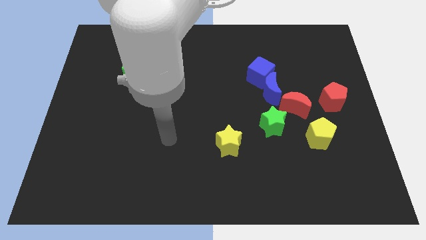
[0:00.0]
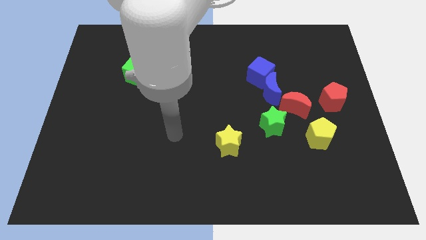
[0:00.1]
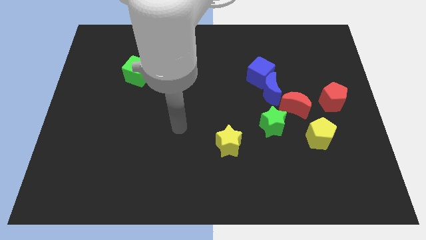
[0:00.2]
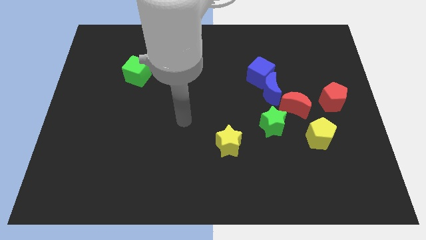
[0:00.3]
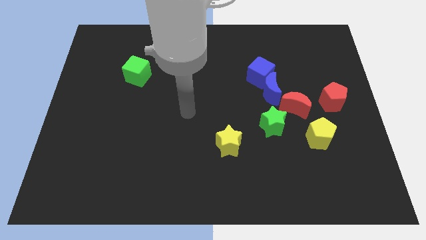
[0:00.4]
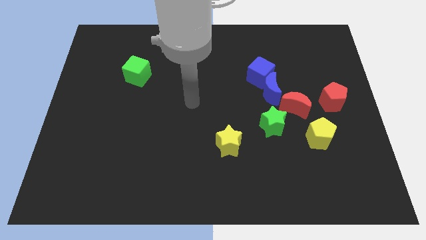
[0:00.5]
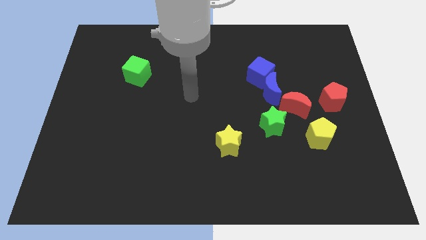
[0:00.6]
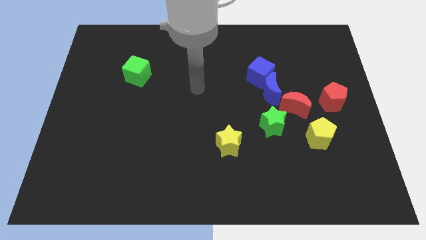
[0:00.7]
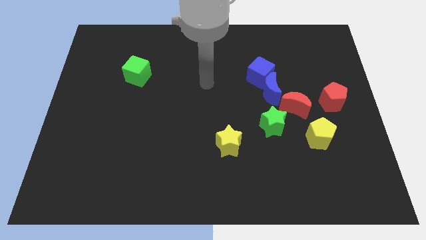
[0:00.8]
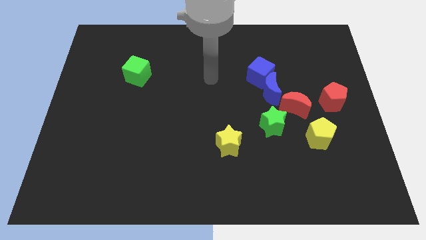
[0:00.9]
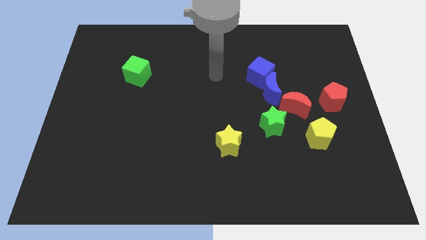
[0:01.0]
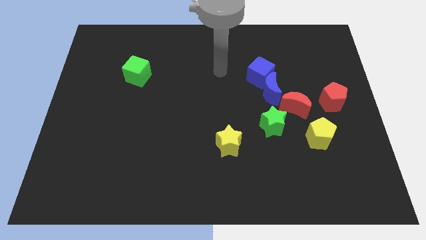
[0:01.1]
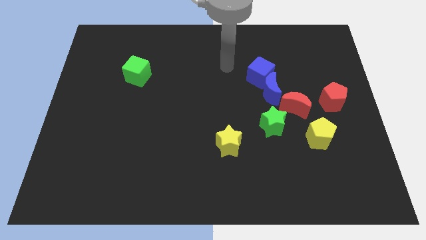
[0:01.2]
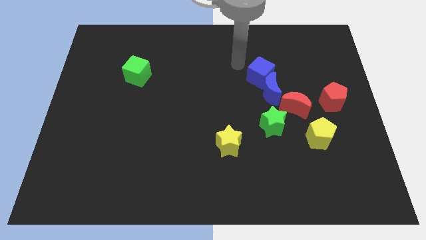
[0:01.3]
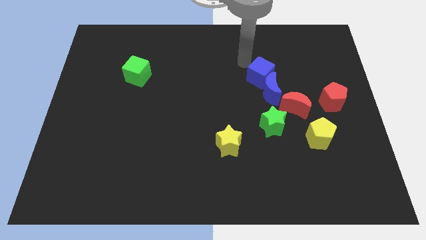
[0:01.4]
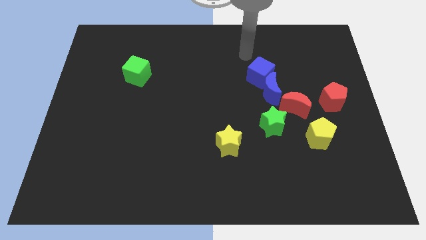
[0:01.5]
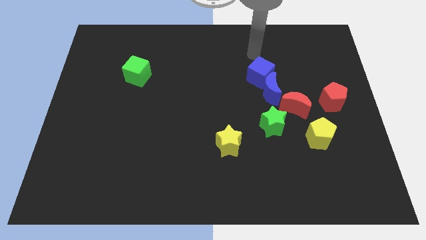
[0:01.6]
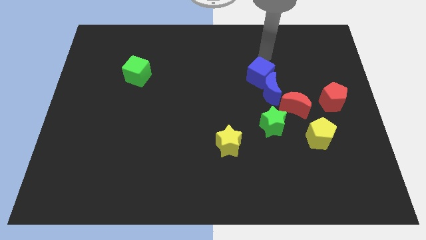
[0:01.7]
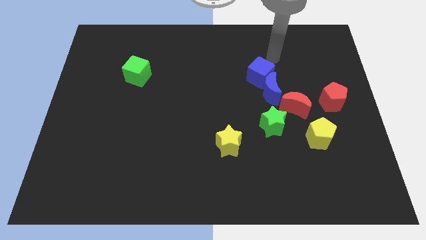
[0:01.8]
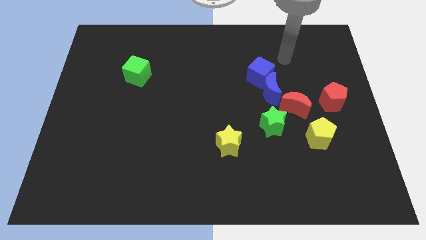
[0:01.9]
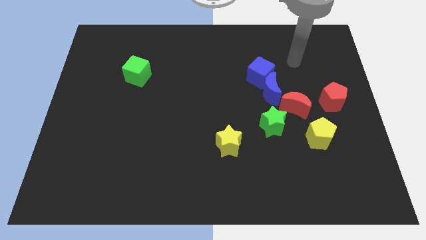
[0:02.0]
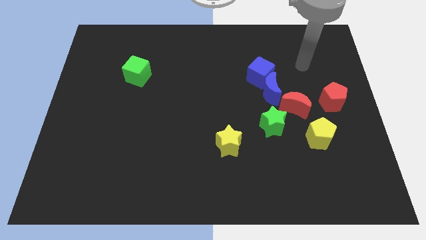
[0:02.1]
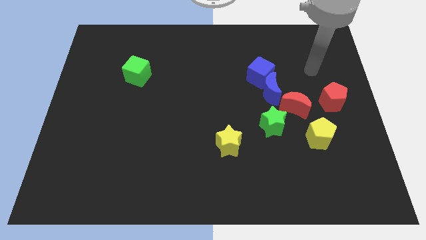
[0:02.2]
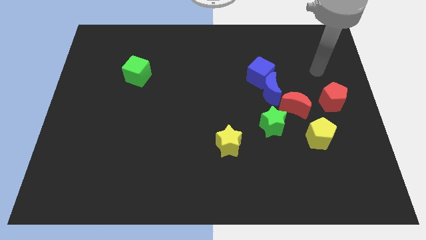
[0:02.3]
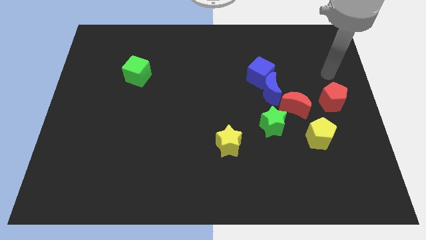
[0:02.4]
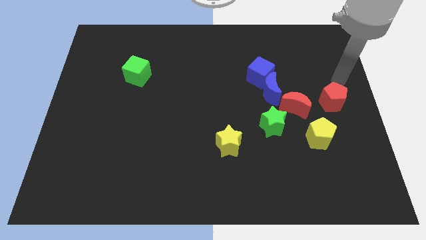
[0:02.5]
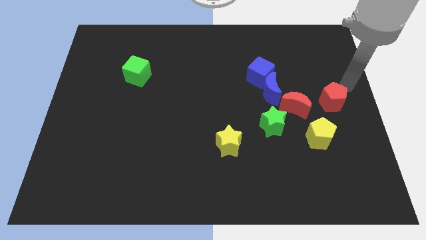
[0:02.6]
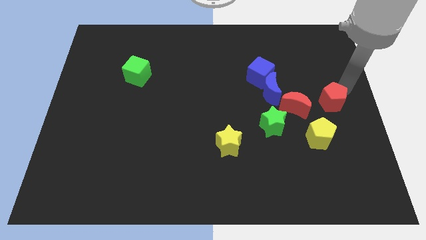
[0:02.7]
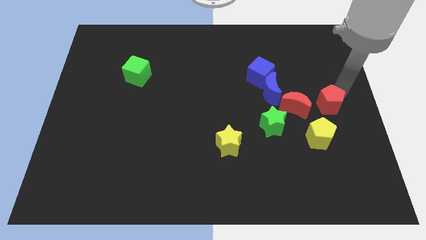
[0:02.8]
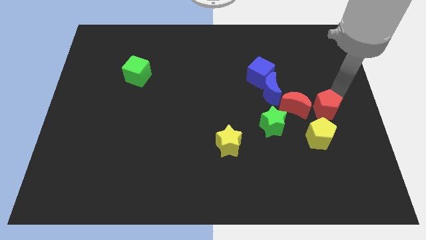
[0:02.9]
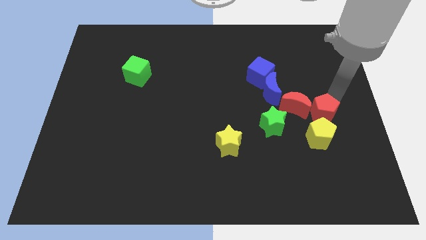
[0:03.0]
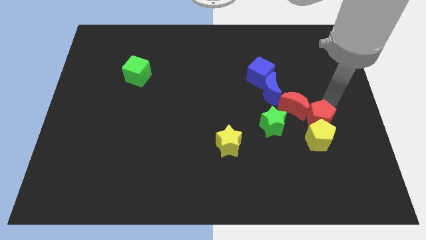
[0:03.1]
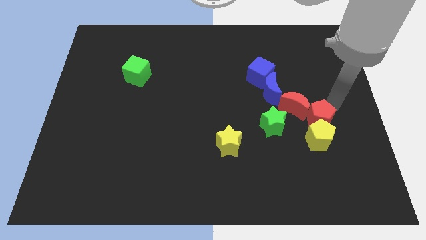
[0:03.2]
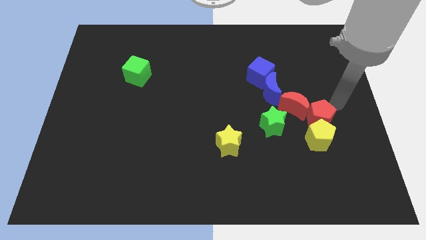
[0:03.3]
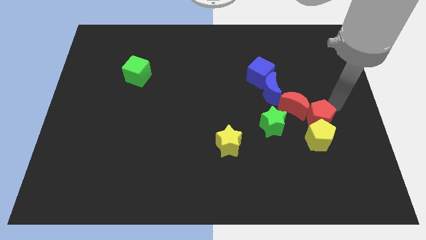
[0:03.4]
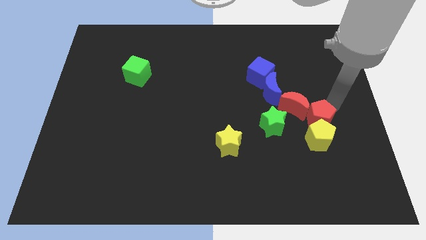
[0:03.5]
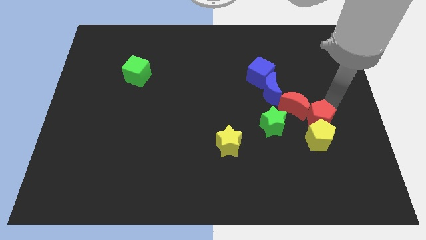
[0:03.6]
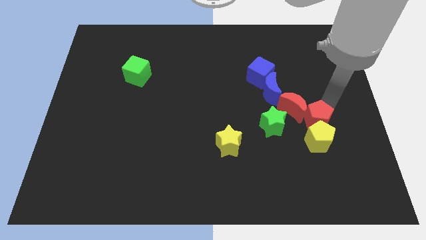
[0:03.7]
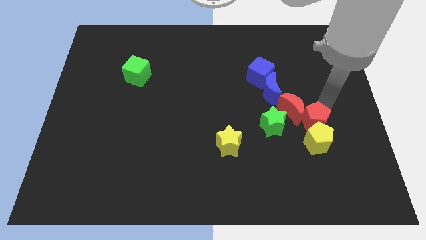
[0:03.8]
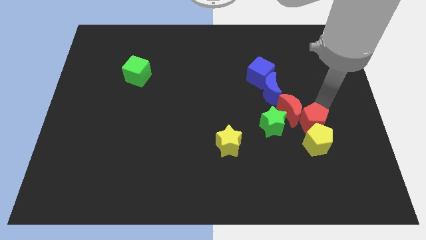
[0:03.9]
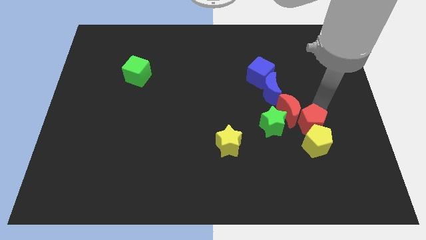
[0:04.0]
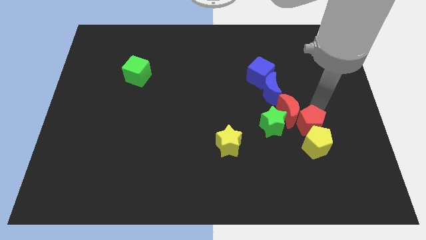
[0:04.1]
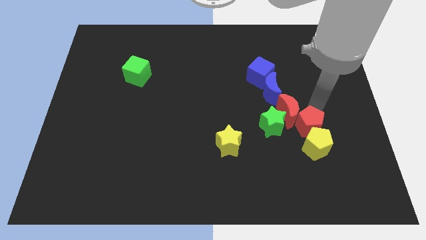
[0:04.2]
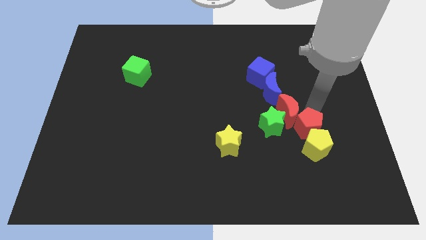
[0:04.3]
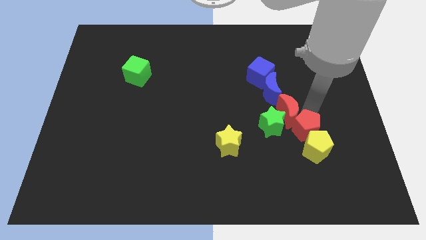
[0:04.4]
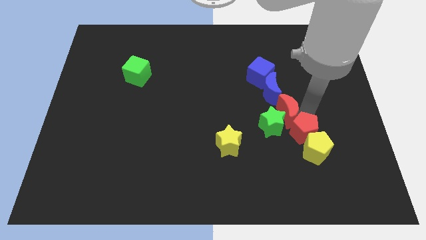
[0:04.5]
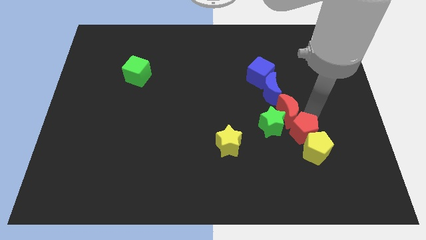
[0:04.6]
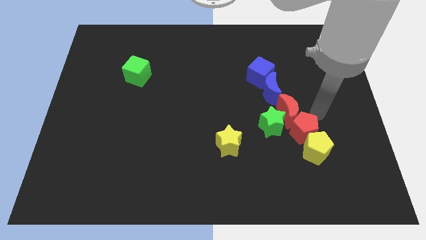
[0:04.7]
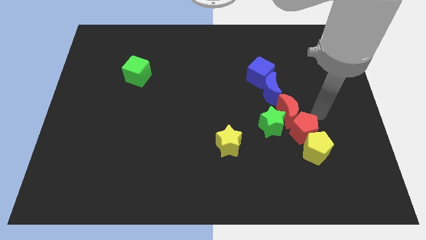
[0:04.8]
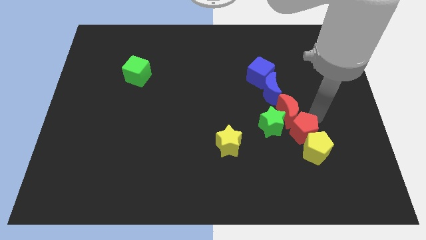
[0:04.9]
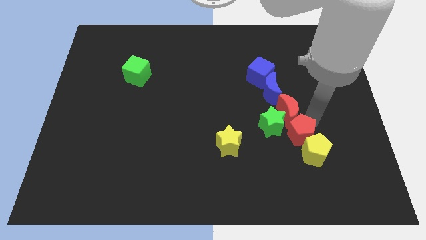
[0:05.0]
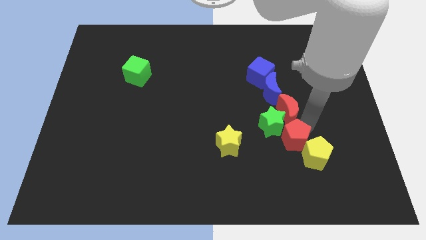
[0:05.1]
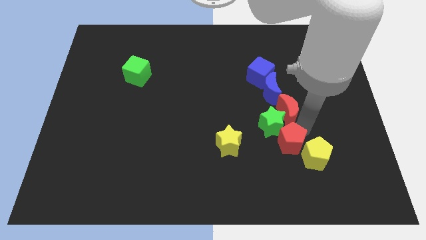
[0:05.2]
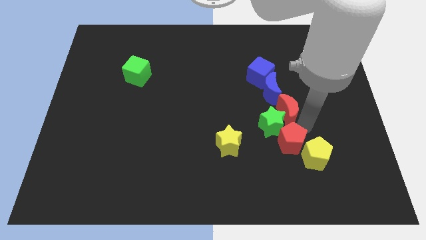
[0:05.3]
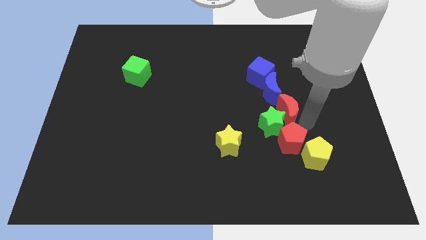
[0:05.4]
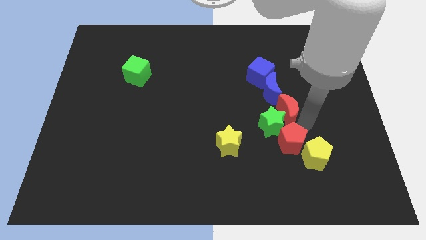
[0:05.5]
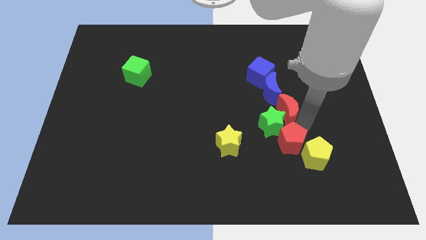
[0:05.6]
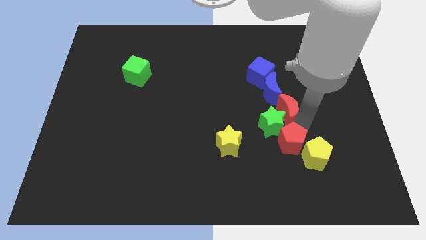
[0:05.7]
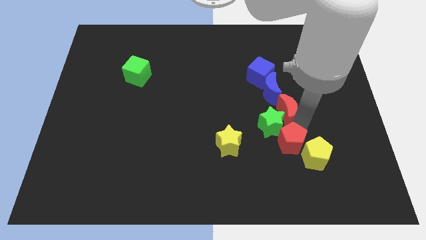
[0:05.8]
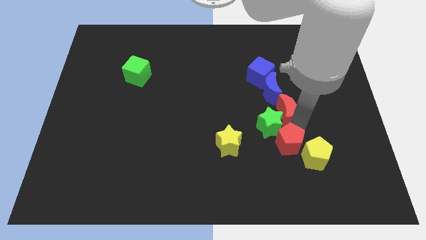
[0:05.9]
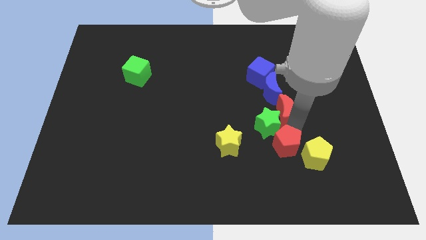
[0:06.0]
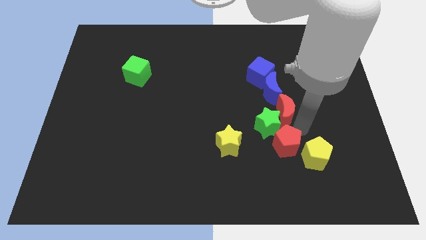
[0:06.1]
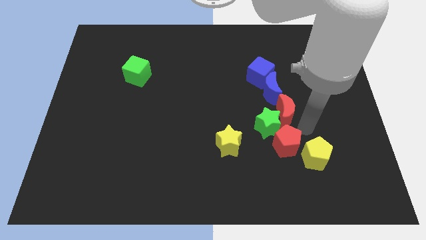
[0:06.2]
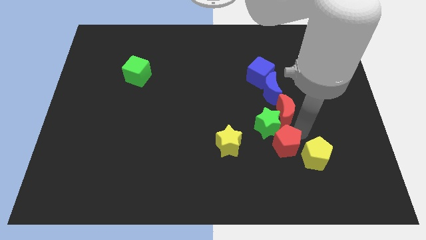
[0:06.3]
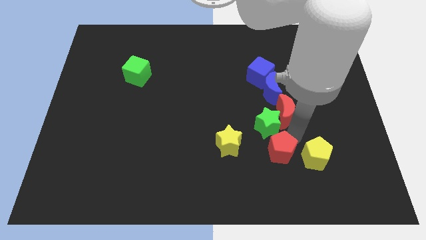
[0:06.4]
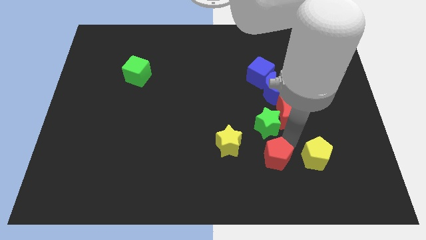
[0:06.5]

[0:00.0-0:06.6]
move the red pentagon to the bottom right side of the yellow star

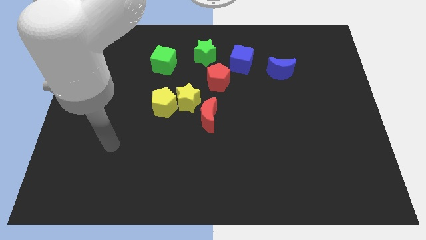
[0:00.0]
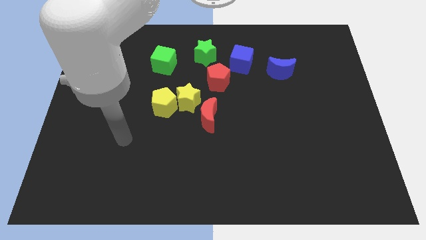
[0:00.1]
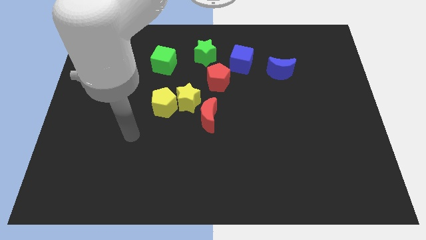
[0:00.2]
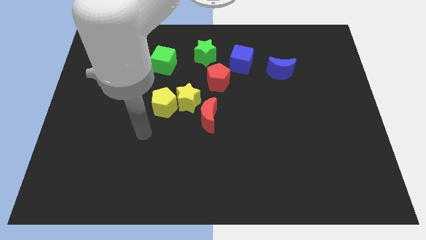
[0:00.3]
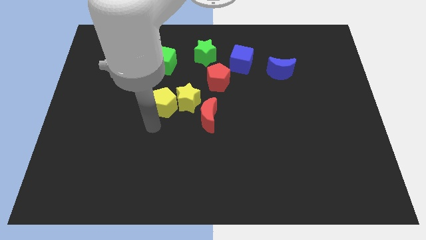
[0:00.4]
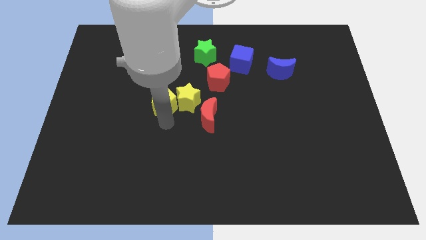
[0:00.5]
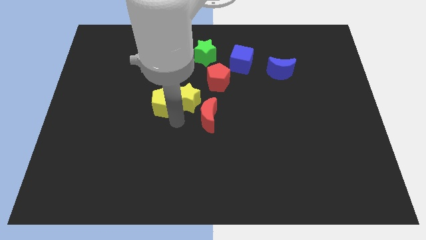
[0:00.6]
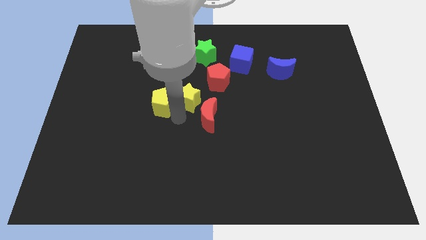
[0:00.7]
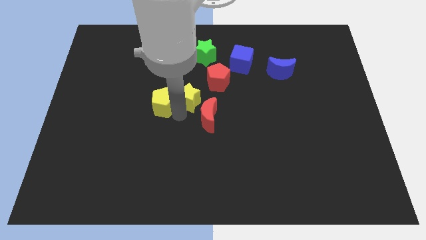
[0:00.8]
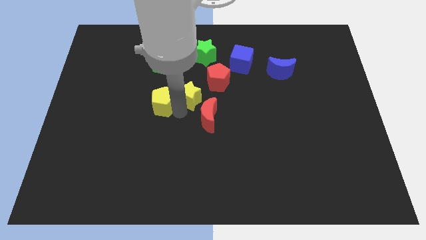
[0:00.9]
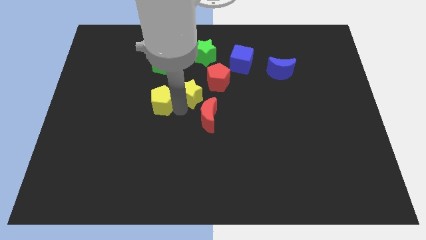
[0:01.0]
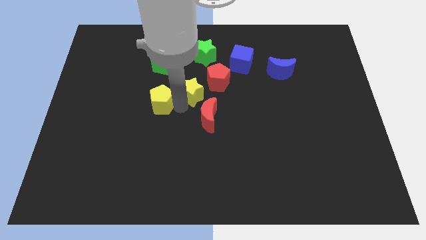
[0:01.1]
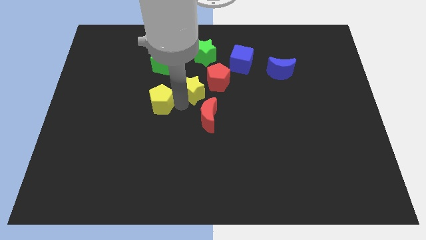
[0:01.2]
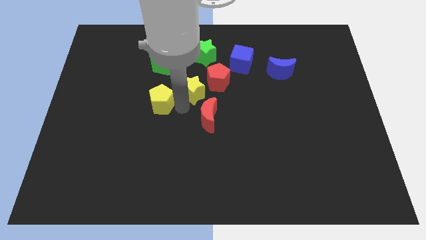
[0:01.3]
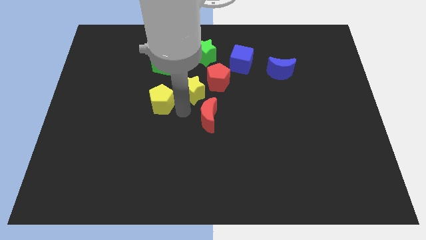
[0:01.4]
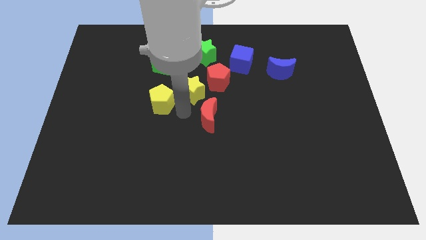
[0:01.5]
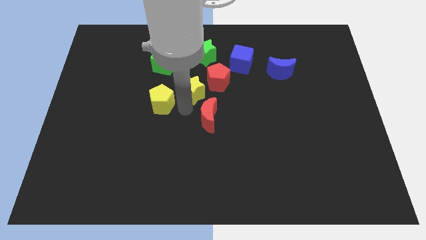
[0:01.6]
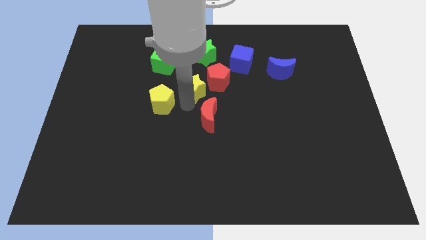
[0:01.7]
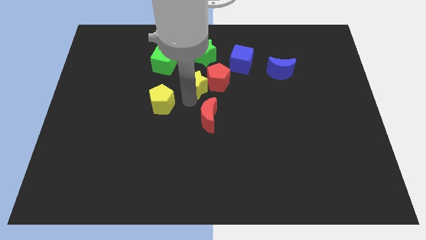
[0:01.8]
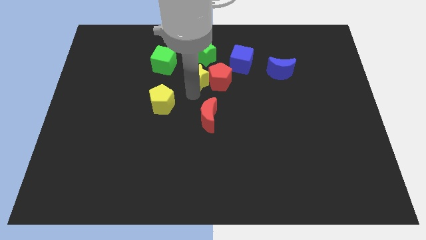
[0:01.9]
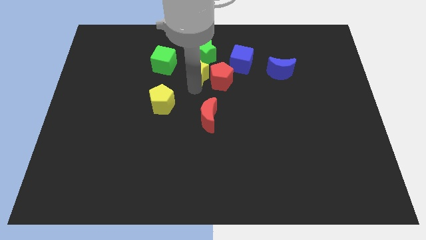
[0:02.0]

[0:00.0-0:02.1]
push the yellow star right of the green cube
